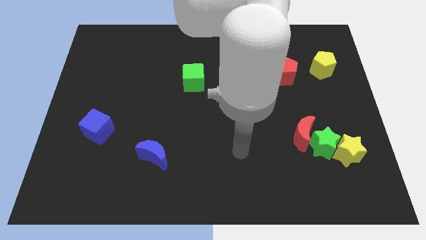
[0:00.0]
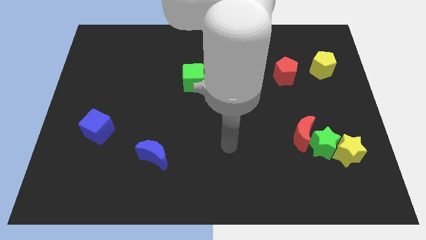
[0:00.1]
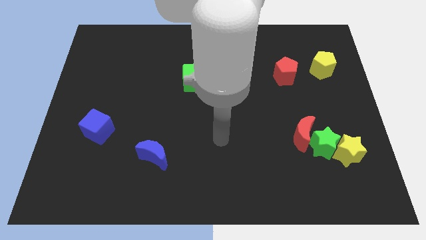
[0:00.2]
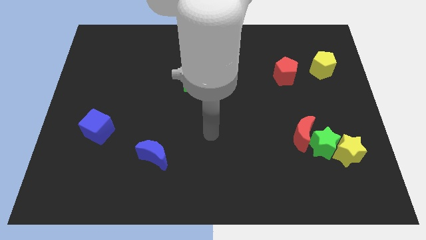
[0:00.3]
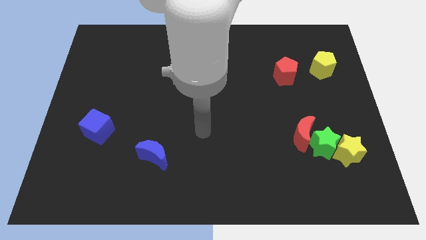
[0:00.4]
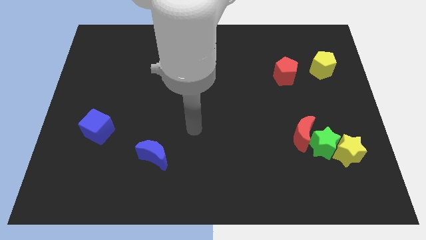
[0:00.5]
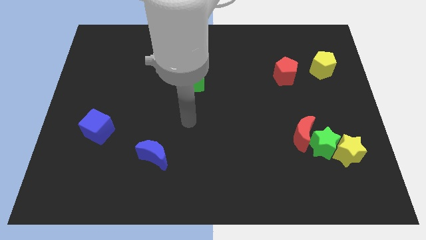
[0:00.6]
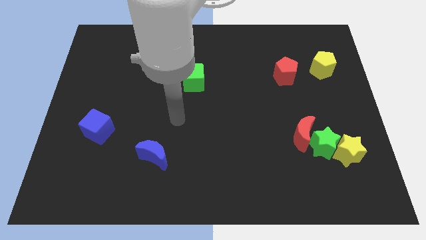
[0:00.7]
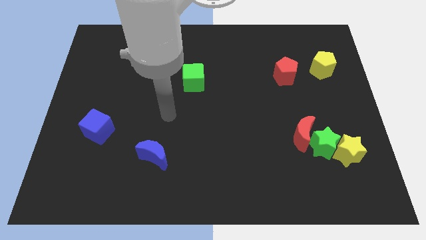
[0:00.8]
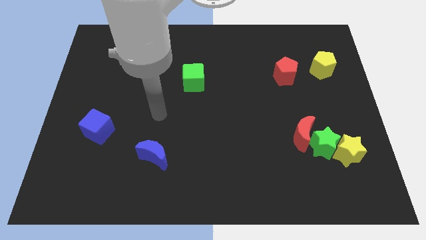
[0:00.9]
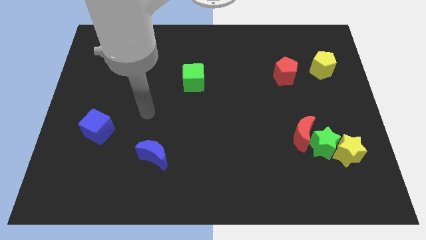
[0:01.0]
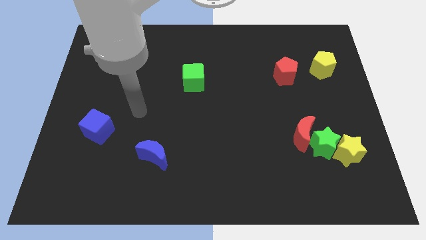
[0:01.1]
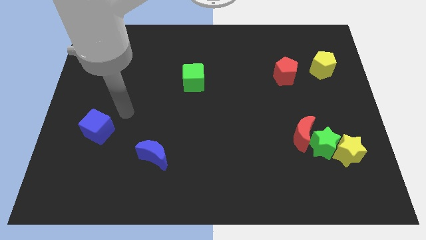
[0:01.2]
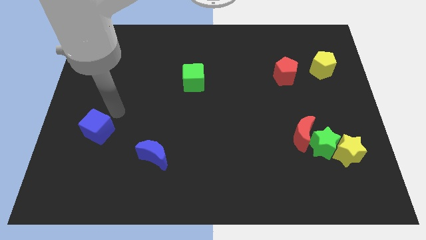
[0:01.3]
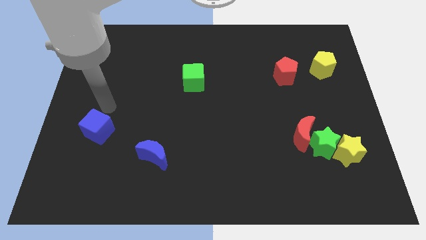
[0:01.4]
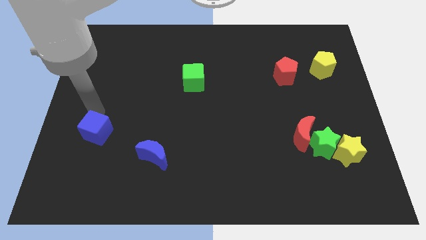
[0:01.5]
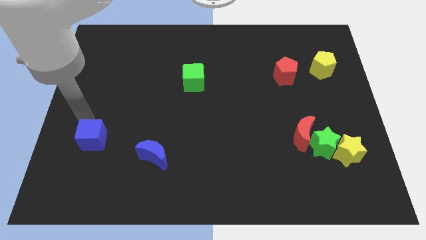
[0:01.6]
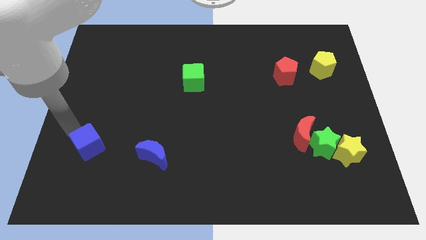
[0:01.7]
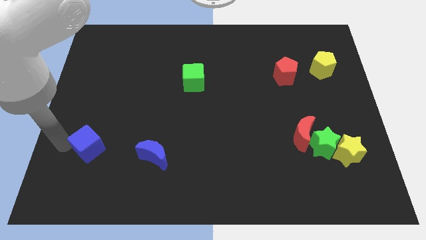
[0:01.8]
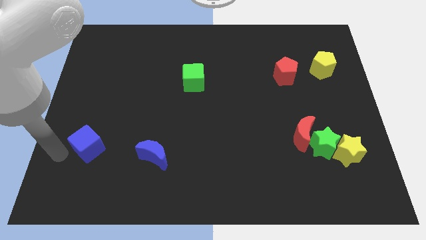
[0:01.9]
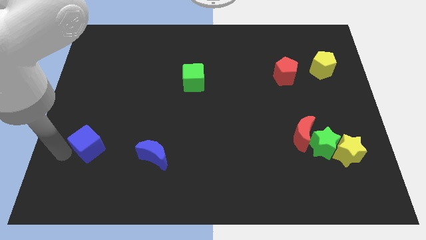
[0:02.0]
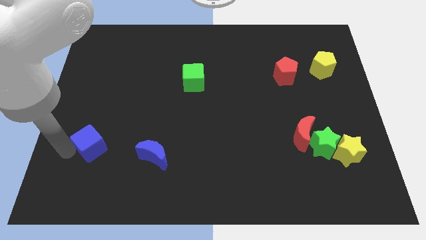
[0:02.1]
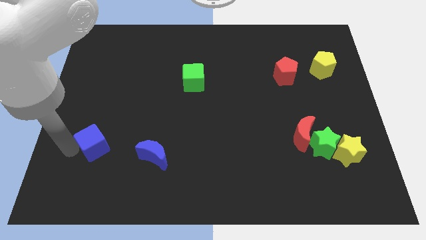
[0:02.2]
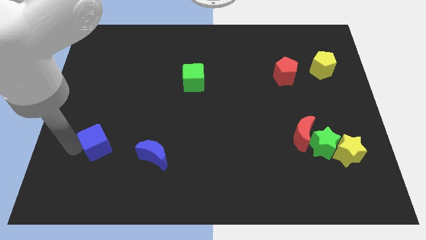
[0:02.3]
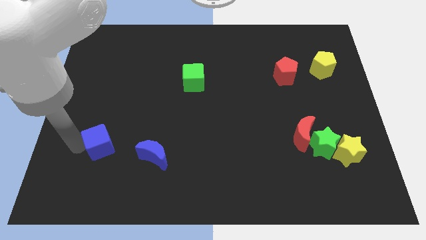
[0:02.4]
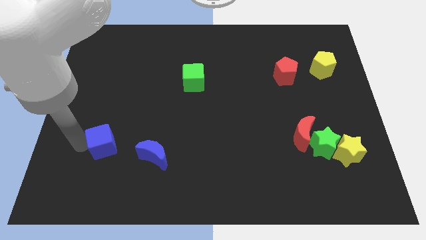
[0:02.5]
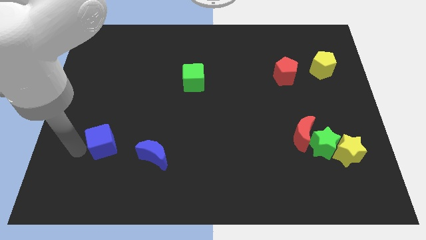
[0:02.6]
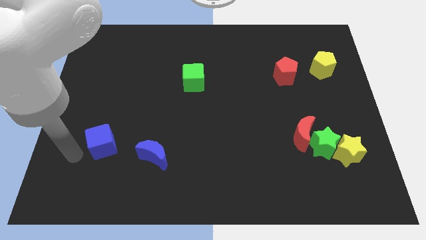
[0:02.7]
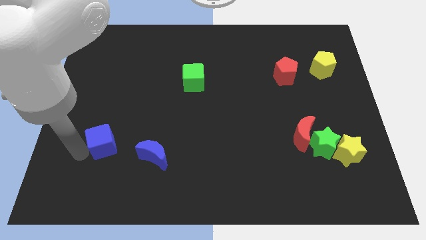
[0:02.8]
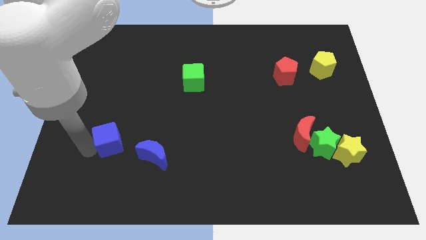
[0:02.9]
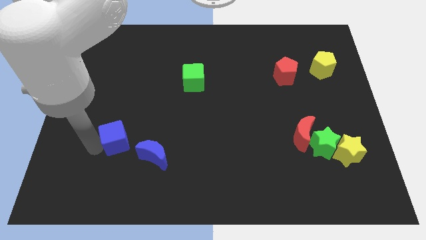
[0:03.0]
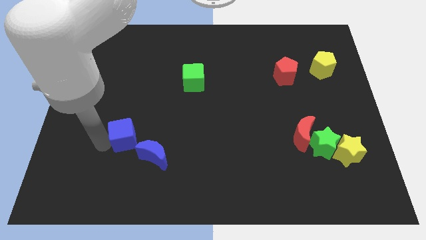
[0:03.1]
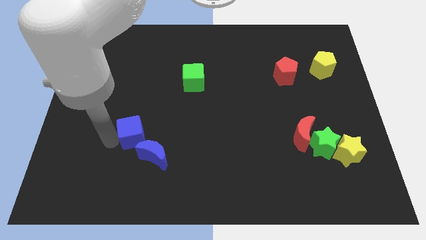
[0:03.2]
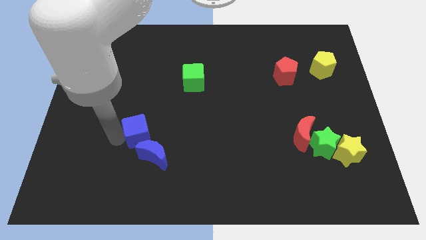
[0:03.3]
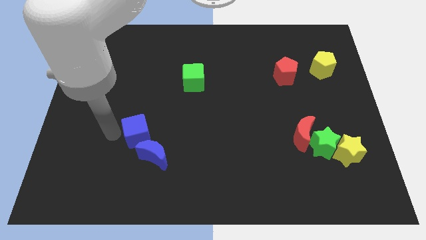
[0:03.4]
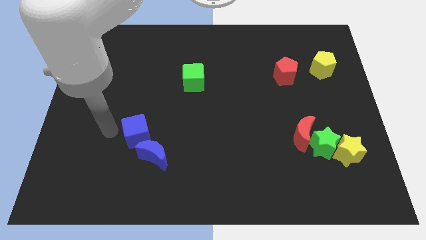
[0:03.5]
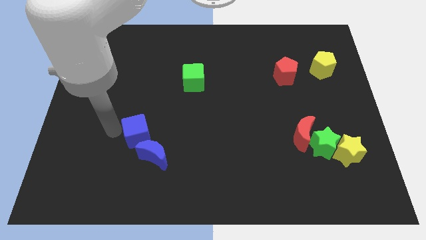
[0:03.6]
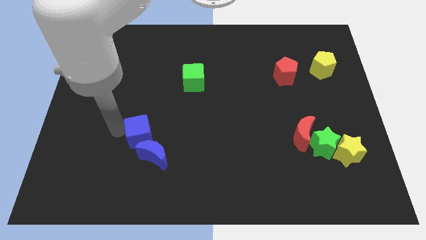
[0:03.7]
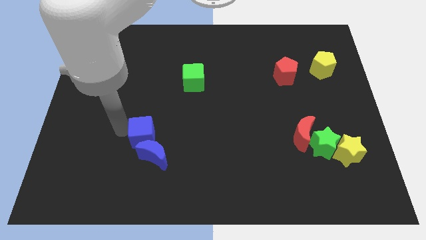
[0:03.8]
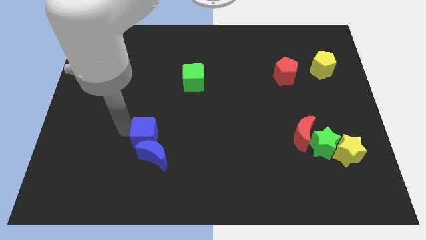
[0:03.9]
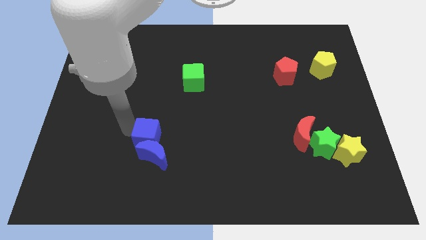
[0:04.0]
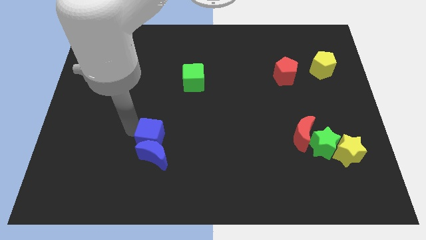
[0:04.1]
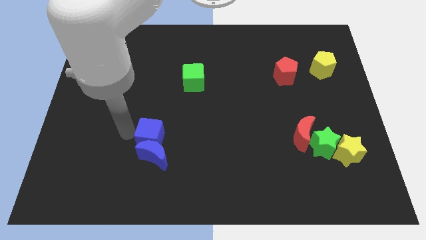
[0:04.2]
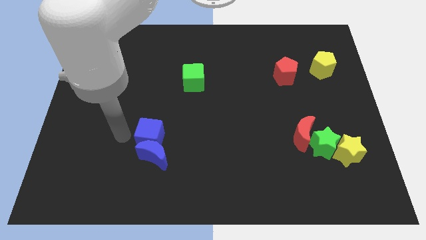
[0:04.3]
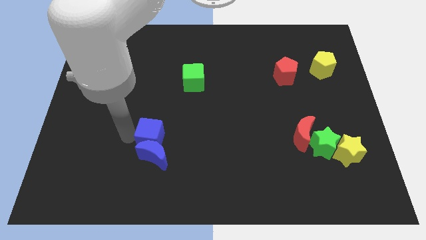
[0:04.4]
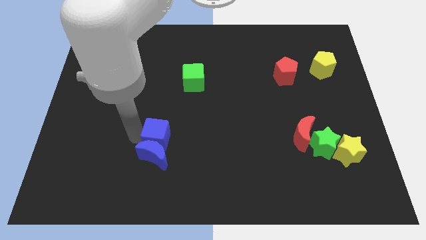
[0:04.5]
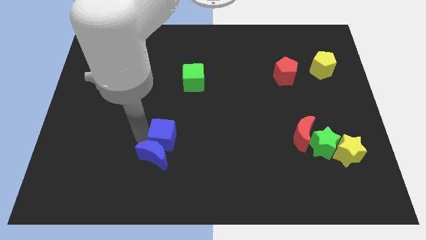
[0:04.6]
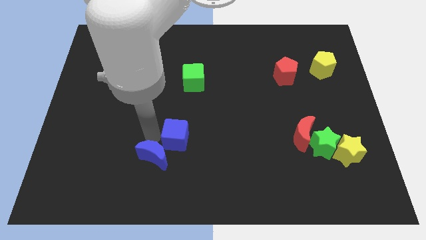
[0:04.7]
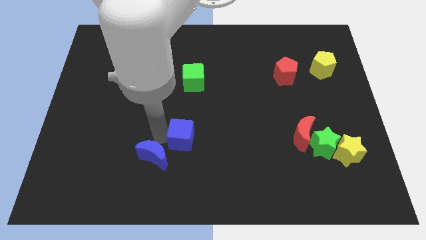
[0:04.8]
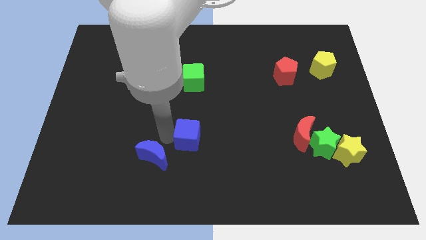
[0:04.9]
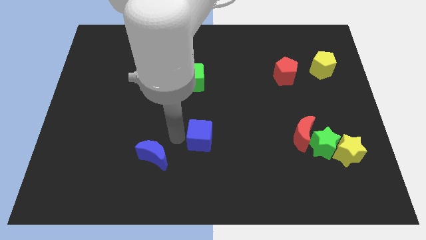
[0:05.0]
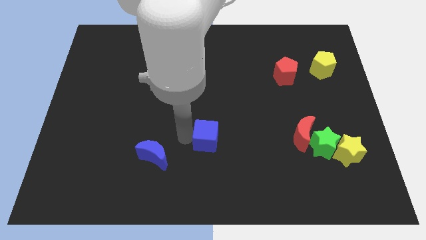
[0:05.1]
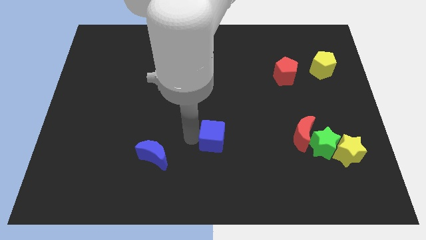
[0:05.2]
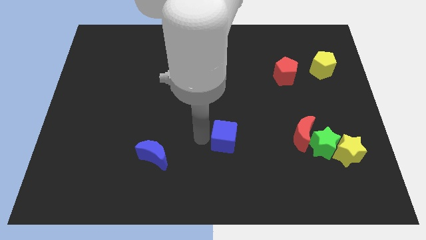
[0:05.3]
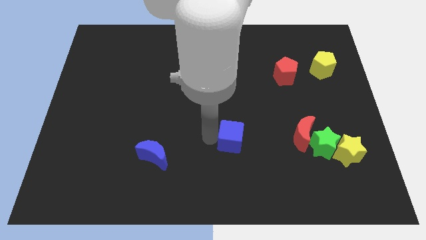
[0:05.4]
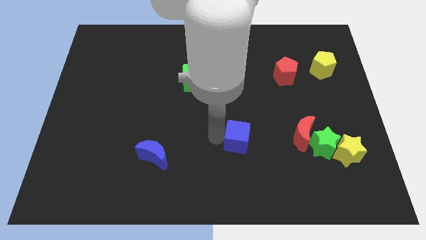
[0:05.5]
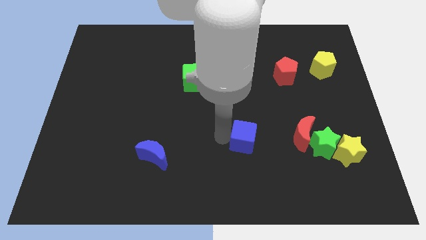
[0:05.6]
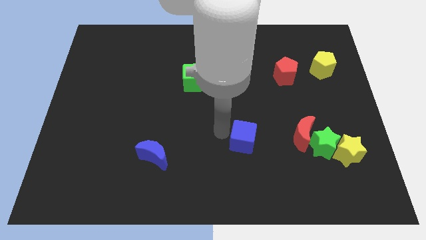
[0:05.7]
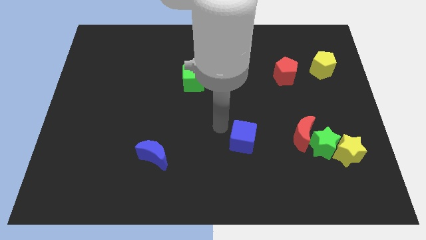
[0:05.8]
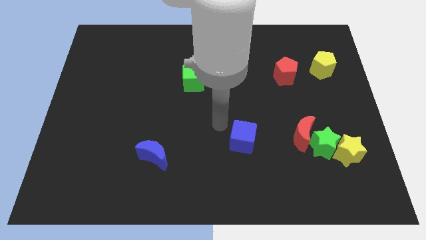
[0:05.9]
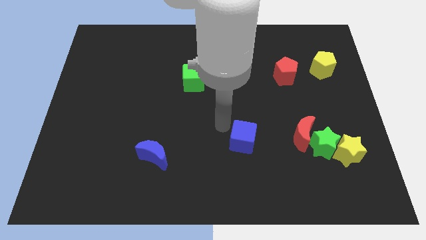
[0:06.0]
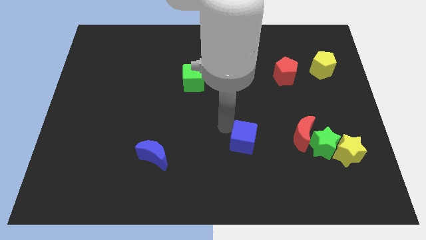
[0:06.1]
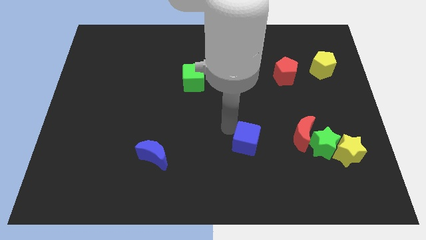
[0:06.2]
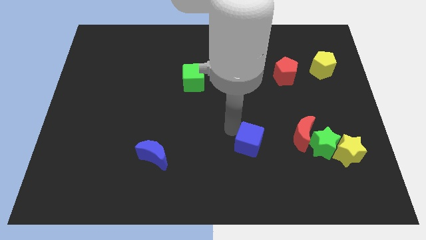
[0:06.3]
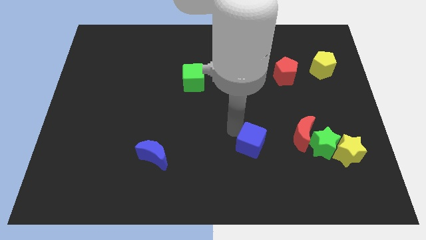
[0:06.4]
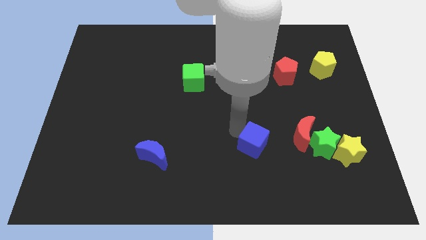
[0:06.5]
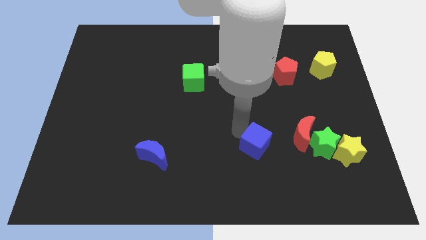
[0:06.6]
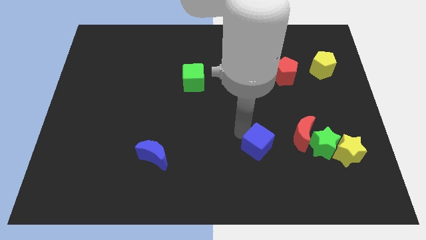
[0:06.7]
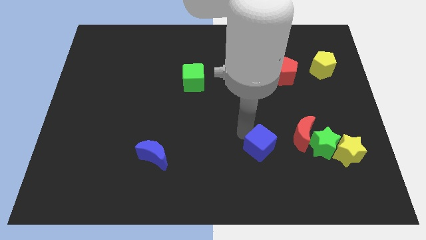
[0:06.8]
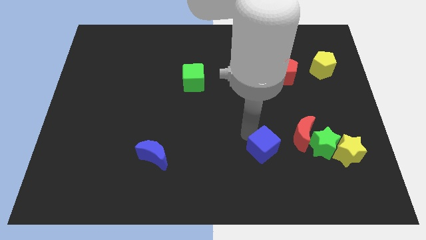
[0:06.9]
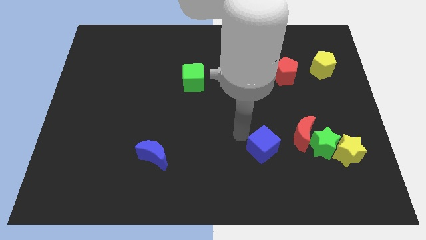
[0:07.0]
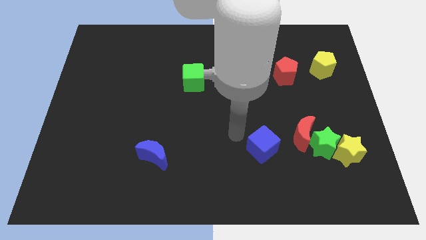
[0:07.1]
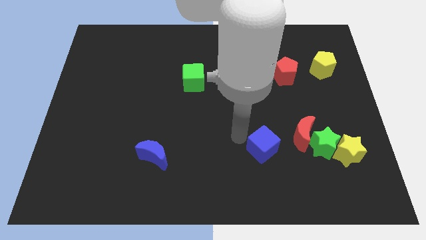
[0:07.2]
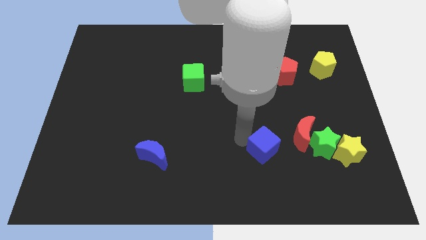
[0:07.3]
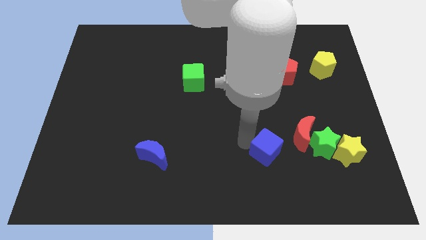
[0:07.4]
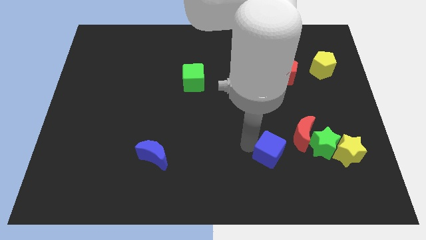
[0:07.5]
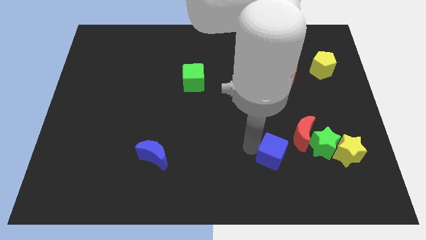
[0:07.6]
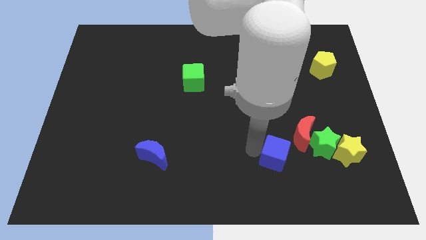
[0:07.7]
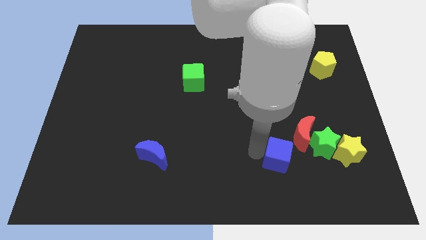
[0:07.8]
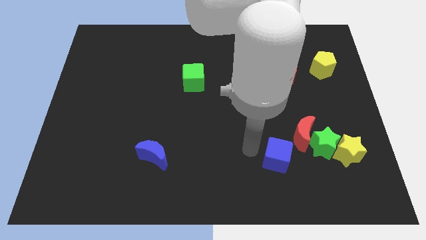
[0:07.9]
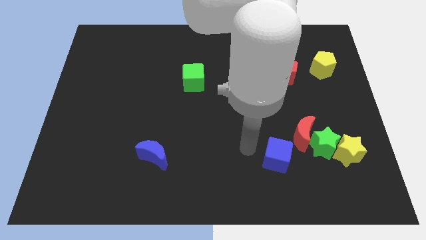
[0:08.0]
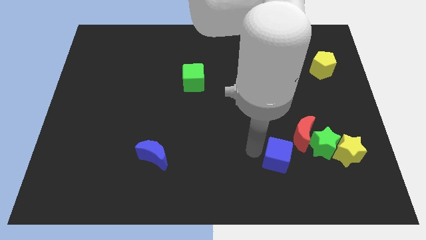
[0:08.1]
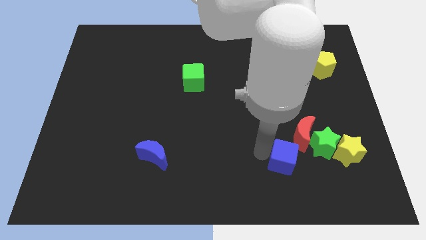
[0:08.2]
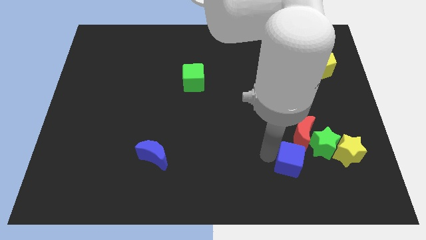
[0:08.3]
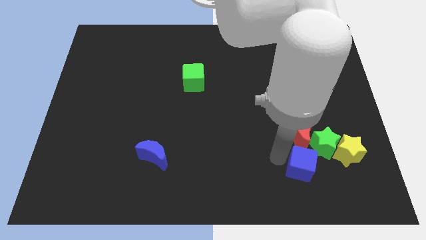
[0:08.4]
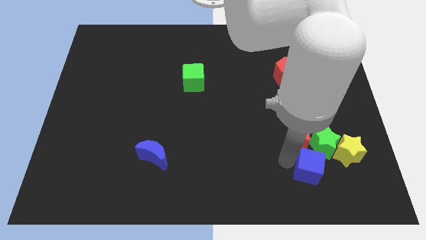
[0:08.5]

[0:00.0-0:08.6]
slide the blue cube to the bottom left of the yellow star
